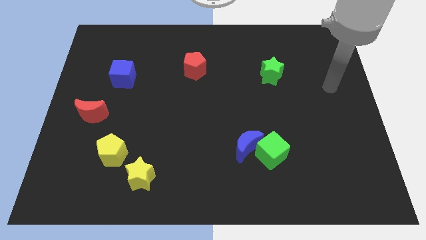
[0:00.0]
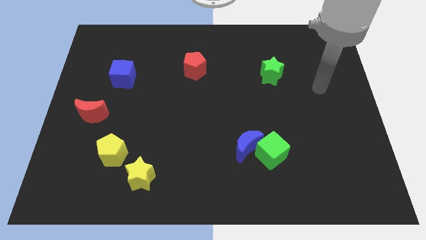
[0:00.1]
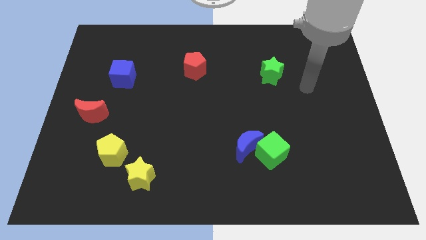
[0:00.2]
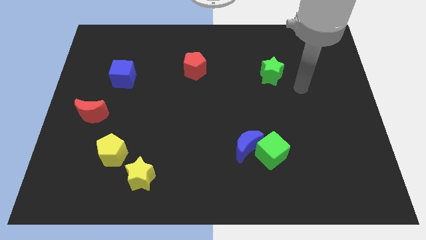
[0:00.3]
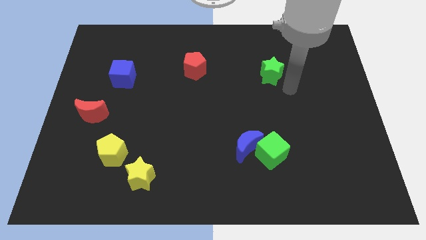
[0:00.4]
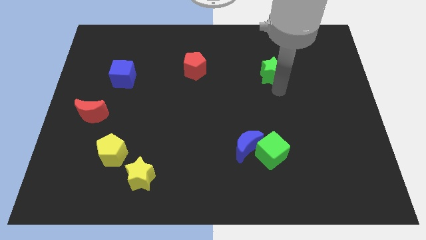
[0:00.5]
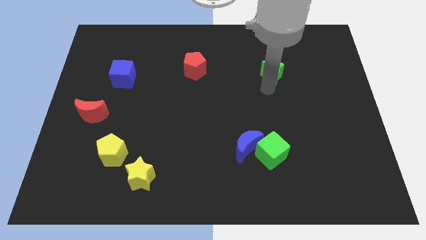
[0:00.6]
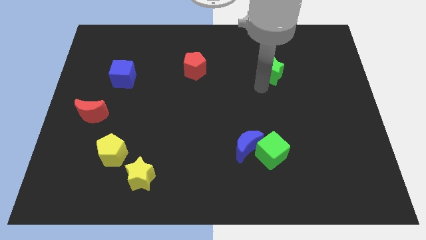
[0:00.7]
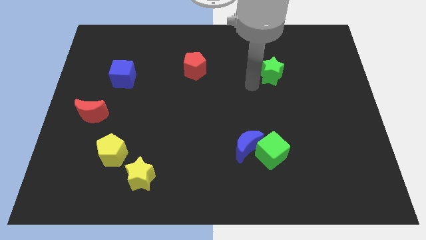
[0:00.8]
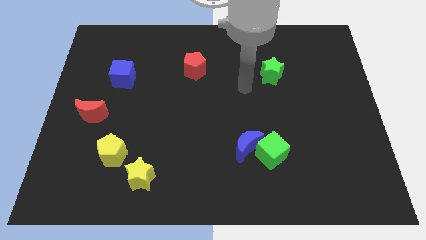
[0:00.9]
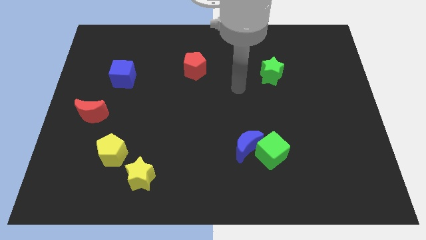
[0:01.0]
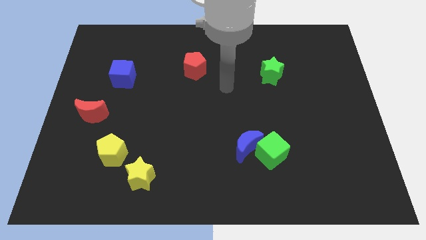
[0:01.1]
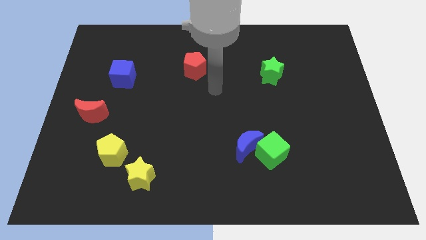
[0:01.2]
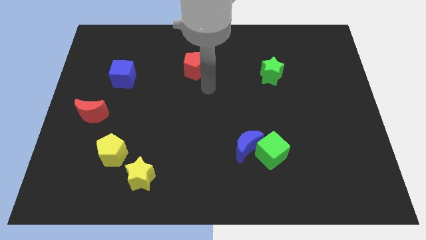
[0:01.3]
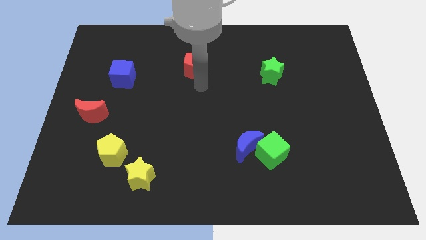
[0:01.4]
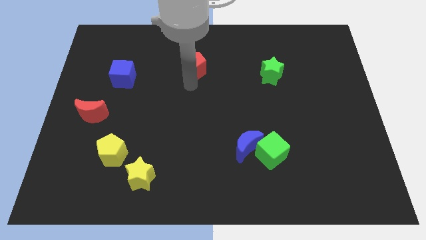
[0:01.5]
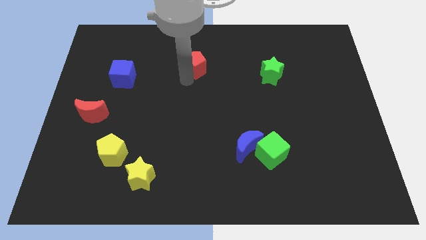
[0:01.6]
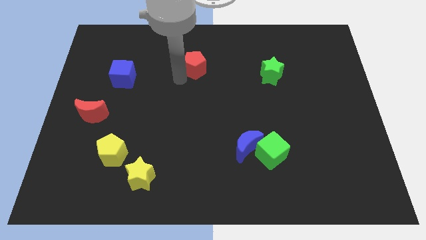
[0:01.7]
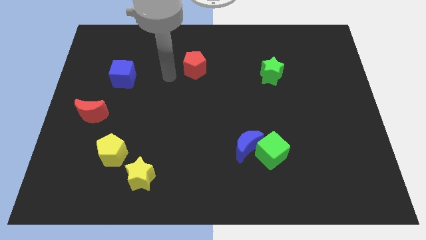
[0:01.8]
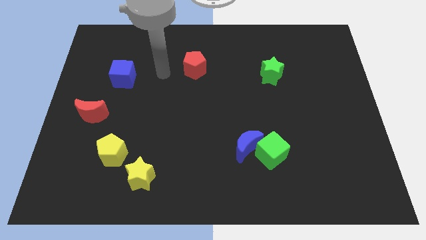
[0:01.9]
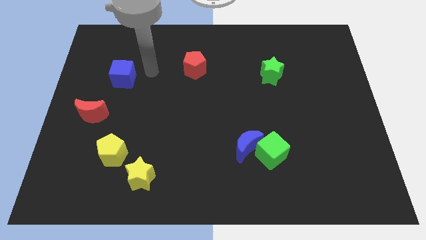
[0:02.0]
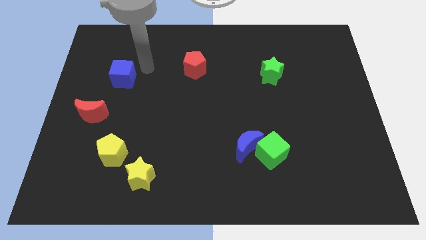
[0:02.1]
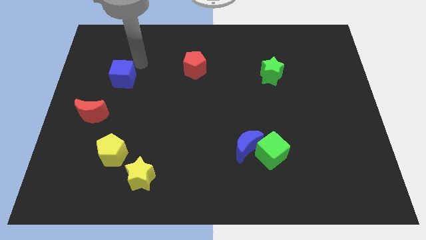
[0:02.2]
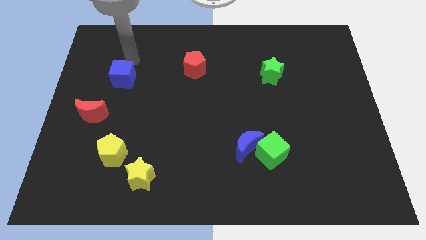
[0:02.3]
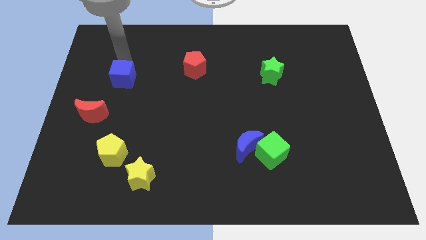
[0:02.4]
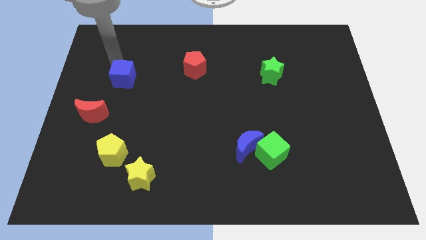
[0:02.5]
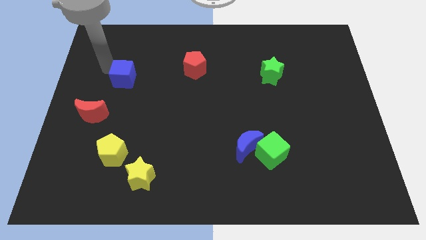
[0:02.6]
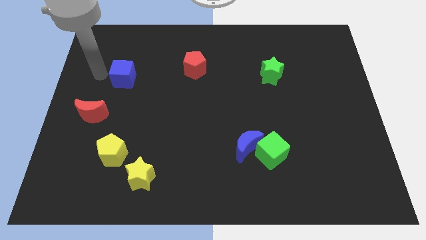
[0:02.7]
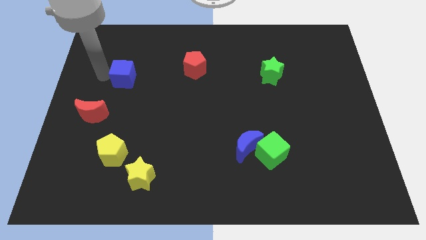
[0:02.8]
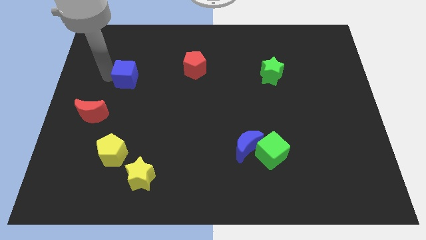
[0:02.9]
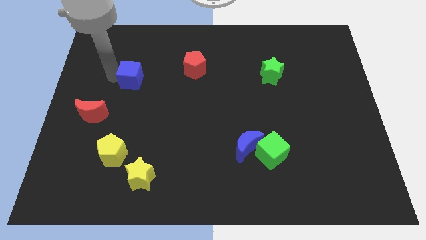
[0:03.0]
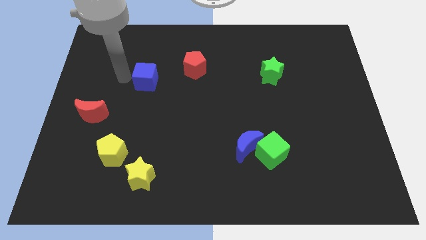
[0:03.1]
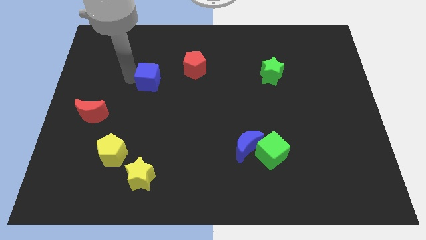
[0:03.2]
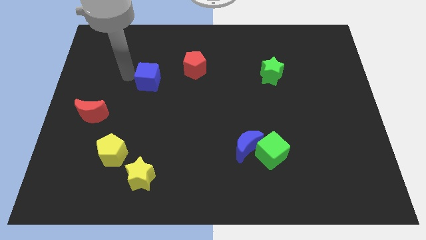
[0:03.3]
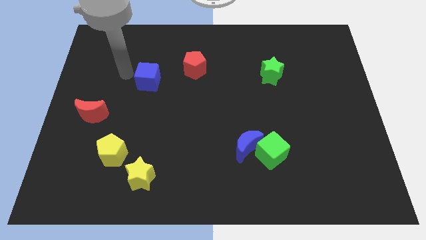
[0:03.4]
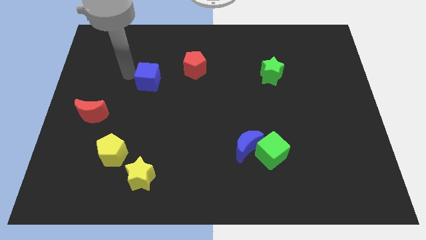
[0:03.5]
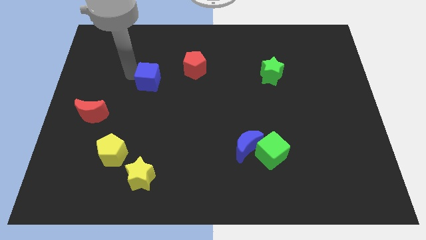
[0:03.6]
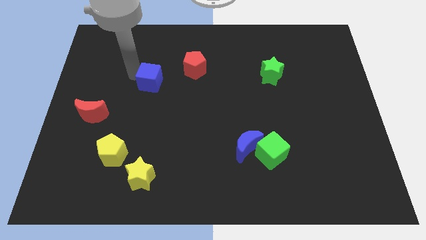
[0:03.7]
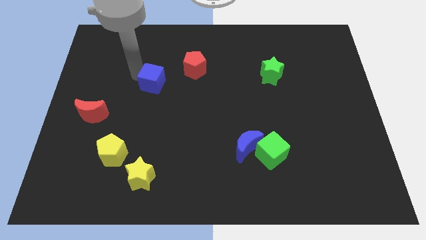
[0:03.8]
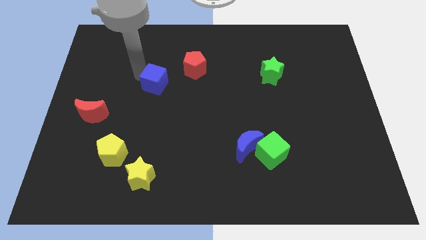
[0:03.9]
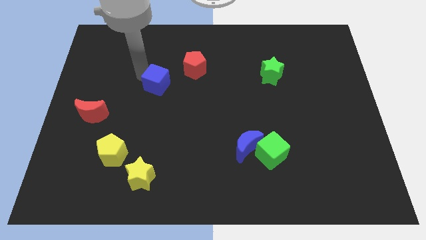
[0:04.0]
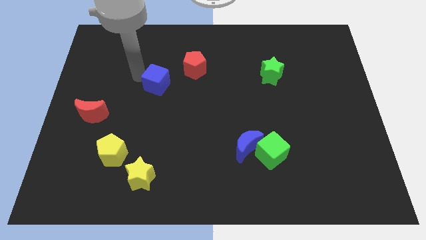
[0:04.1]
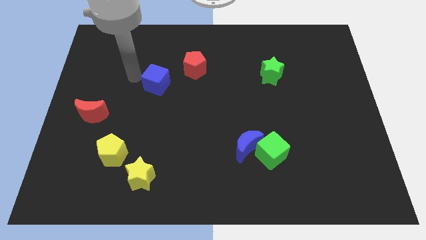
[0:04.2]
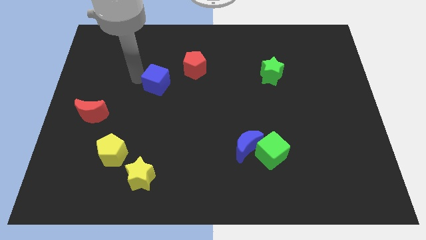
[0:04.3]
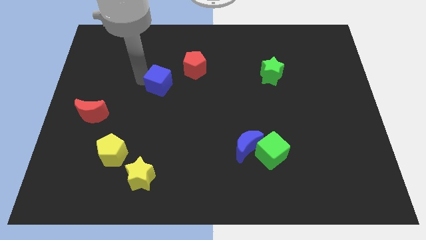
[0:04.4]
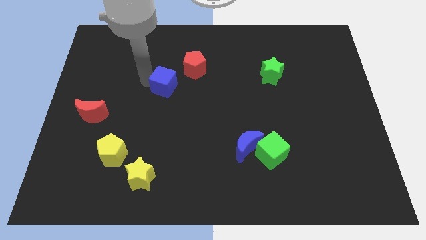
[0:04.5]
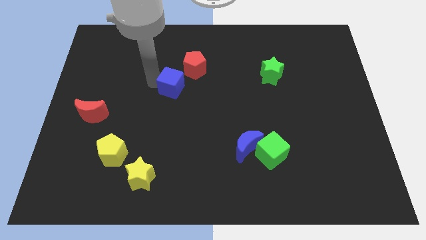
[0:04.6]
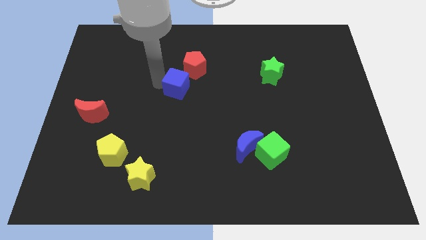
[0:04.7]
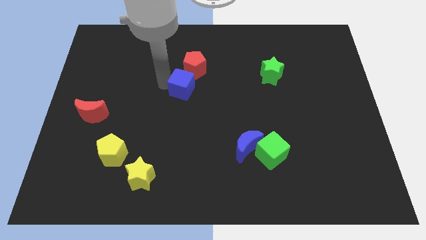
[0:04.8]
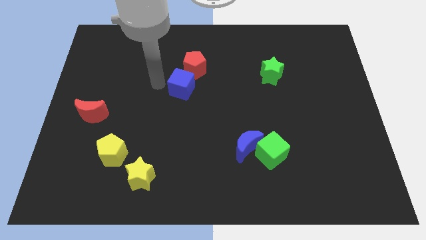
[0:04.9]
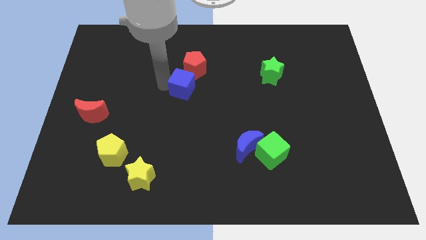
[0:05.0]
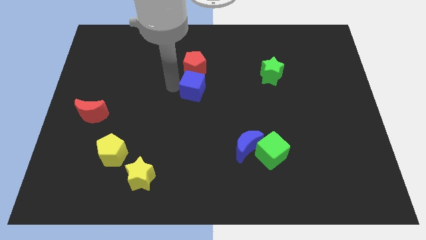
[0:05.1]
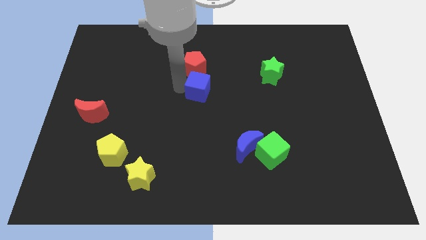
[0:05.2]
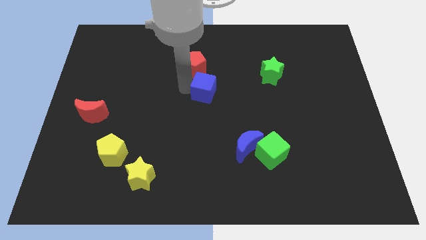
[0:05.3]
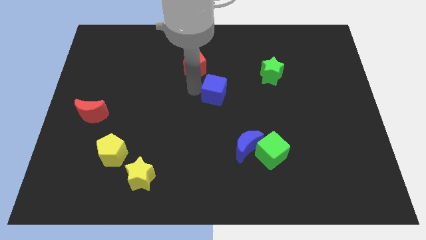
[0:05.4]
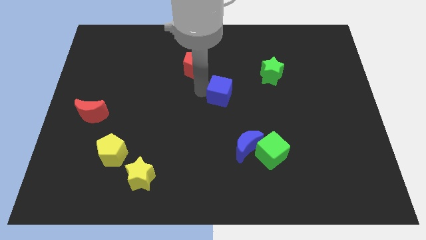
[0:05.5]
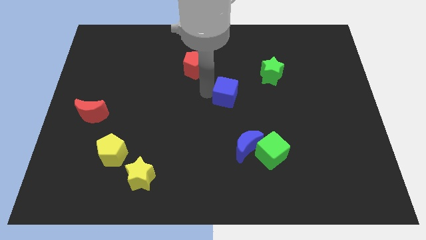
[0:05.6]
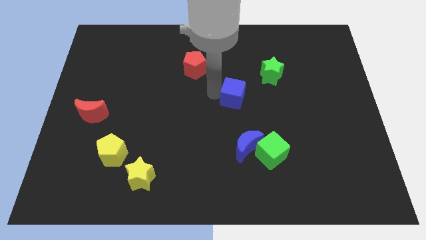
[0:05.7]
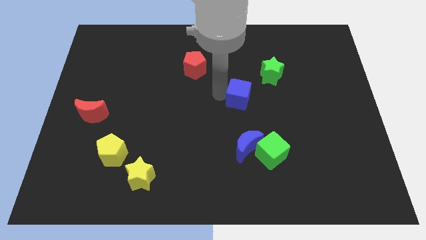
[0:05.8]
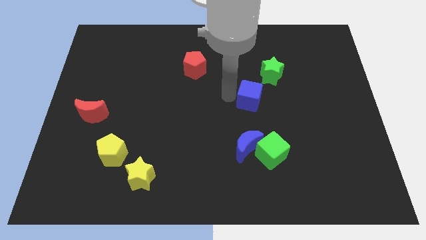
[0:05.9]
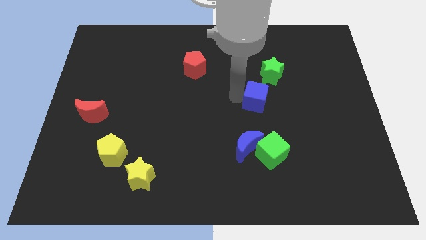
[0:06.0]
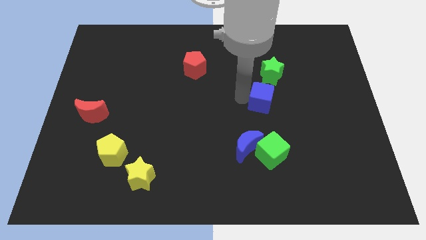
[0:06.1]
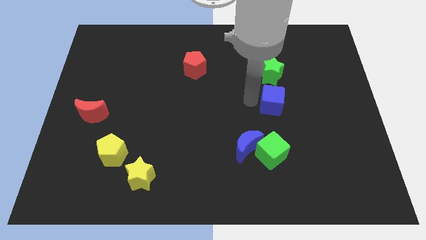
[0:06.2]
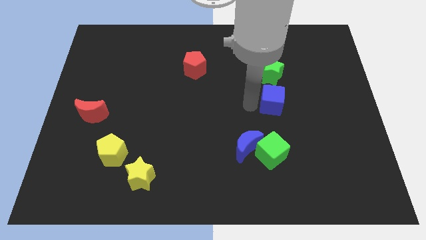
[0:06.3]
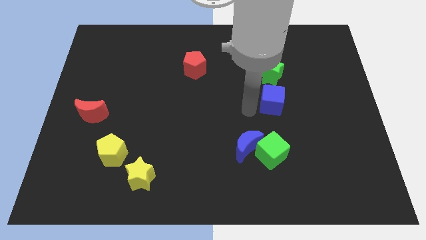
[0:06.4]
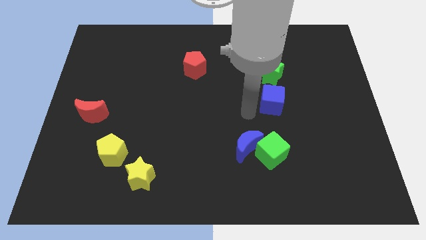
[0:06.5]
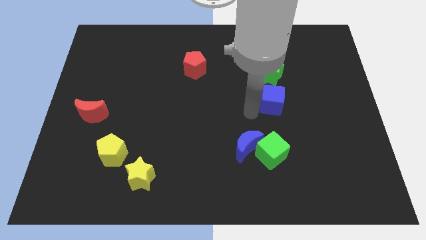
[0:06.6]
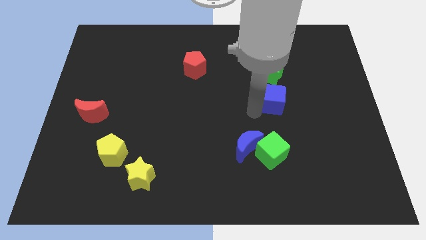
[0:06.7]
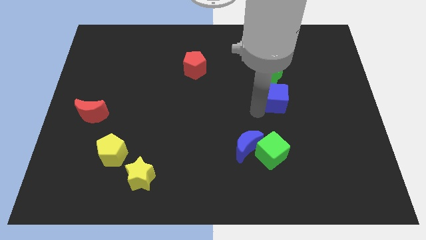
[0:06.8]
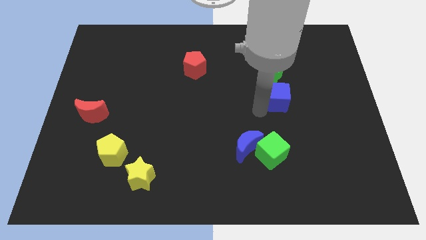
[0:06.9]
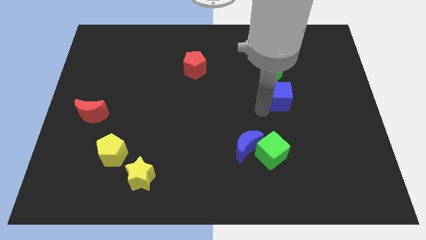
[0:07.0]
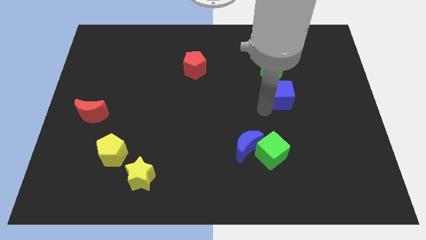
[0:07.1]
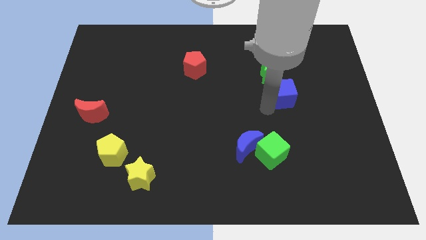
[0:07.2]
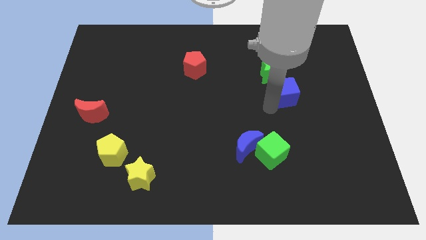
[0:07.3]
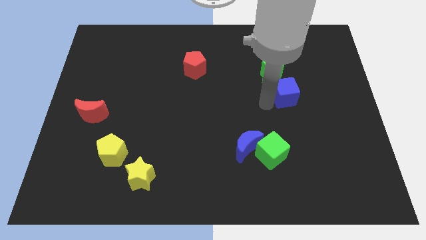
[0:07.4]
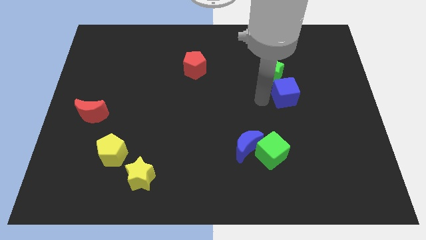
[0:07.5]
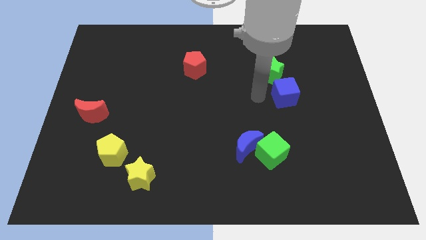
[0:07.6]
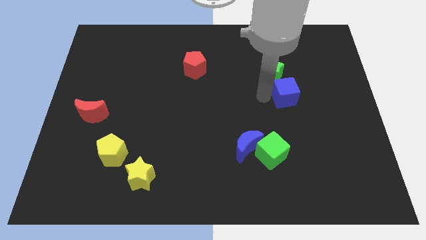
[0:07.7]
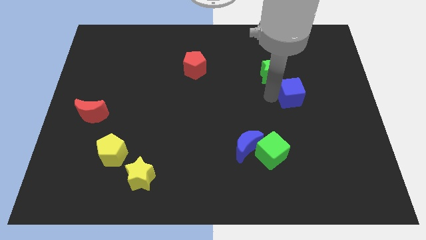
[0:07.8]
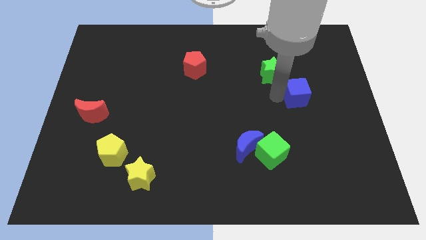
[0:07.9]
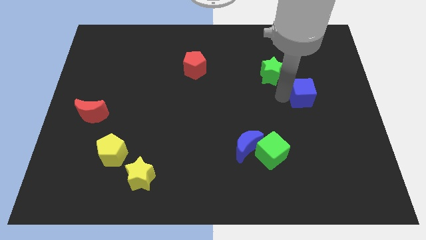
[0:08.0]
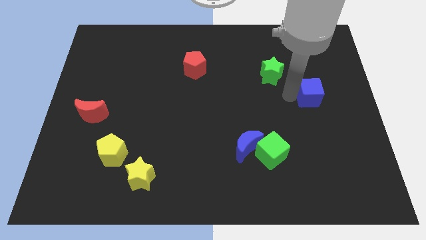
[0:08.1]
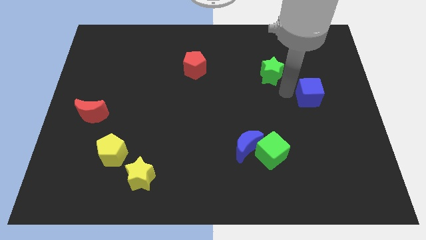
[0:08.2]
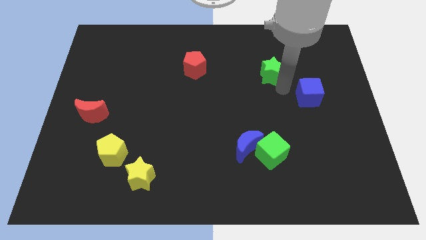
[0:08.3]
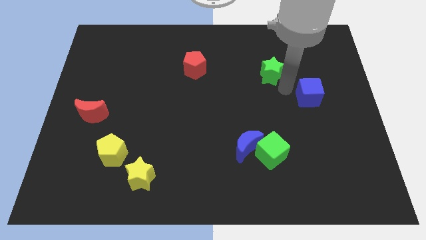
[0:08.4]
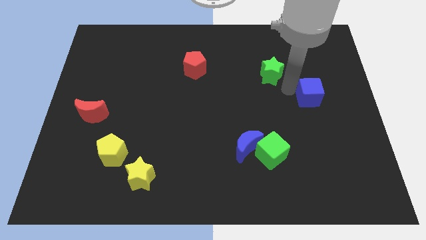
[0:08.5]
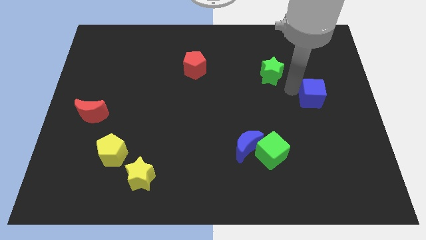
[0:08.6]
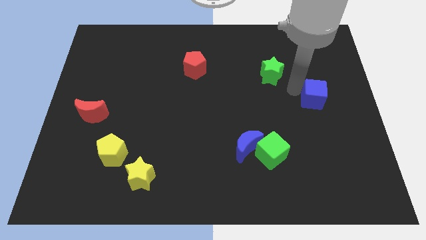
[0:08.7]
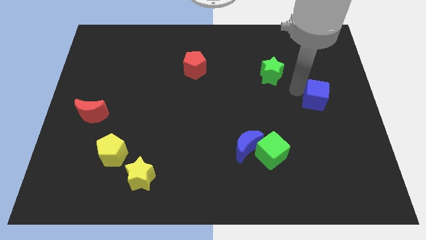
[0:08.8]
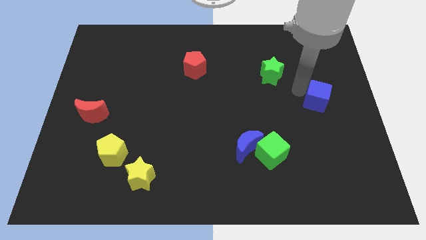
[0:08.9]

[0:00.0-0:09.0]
put the blue cube to the right side of the board
